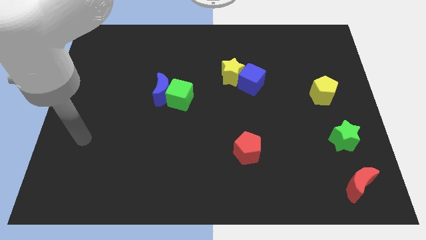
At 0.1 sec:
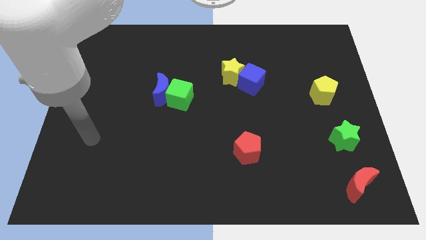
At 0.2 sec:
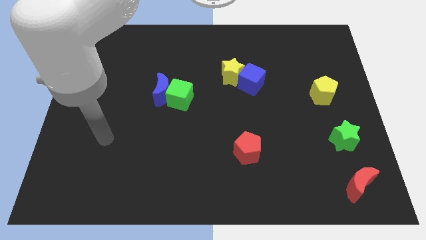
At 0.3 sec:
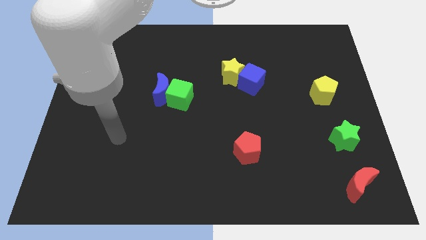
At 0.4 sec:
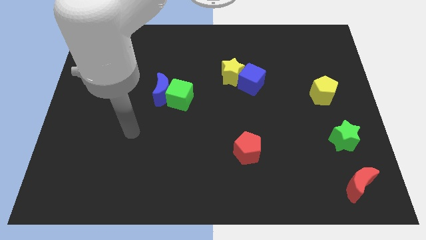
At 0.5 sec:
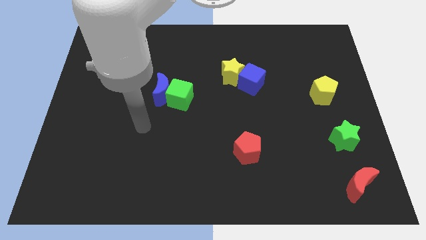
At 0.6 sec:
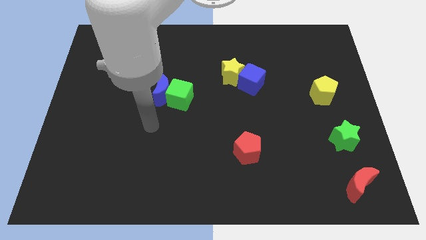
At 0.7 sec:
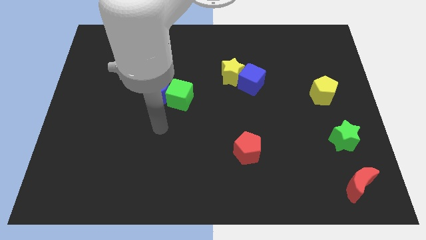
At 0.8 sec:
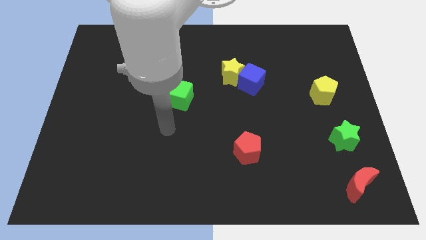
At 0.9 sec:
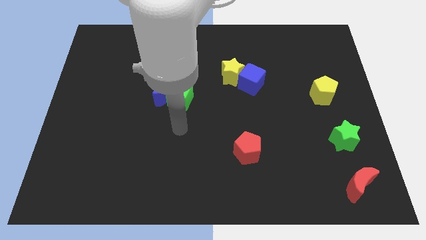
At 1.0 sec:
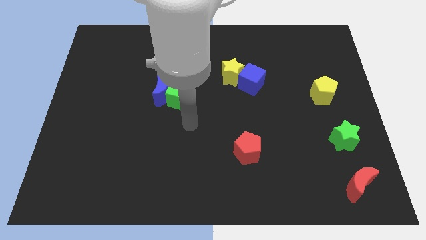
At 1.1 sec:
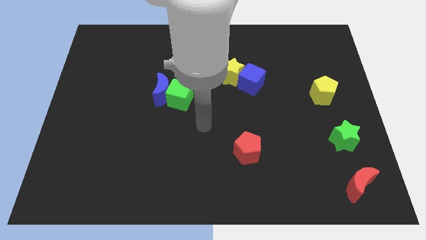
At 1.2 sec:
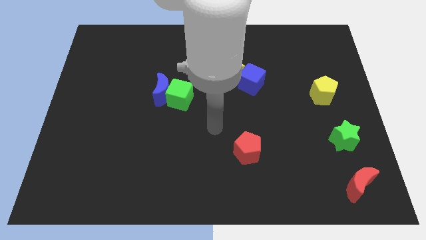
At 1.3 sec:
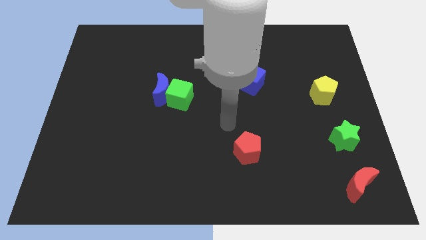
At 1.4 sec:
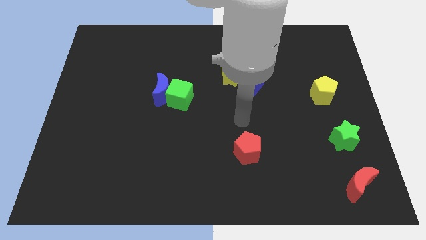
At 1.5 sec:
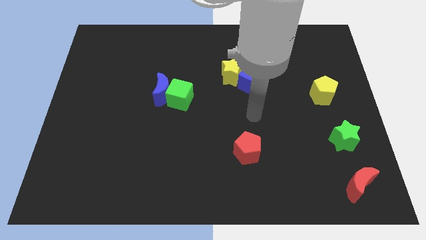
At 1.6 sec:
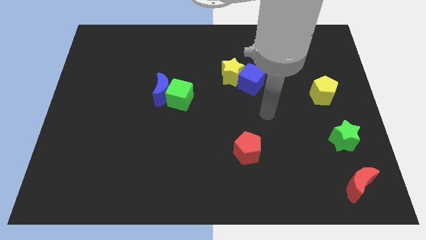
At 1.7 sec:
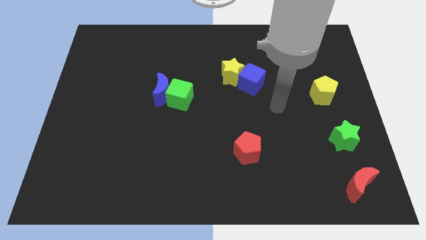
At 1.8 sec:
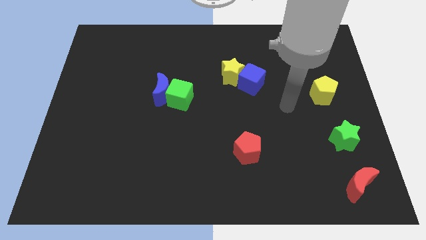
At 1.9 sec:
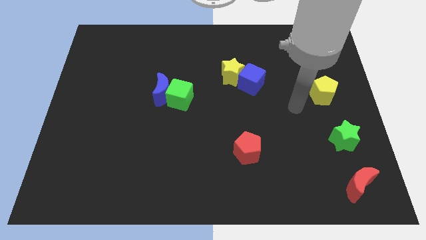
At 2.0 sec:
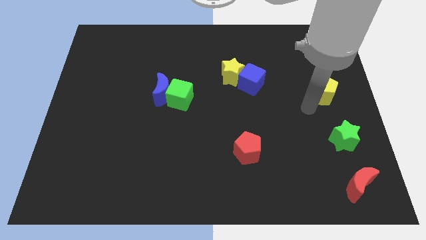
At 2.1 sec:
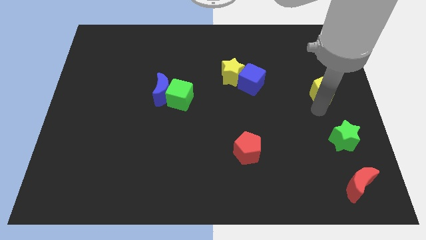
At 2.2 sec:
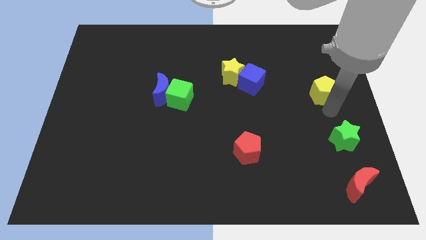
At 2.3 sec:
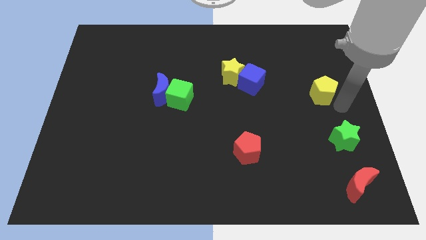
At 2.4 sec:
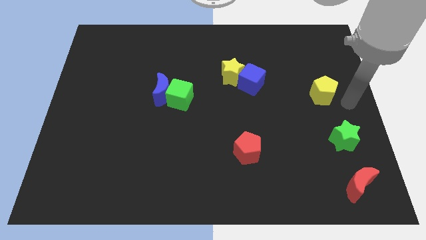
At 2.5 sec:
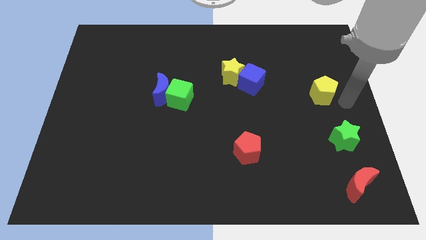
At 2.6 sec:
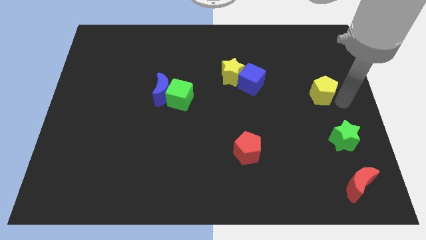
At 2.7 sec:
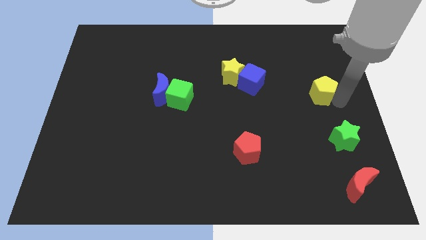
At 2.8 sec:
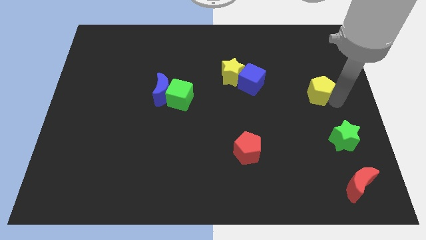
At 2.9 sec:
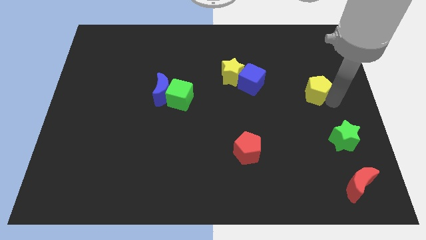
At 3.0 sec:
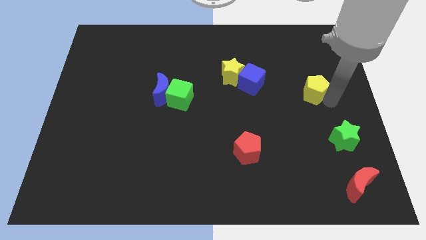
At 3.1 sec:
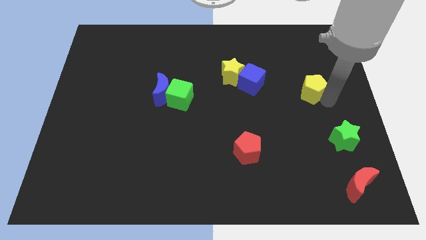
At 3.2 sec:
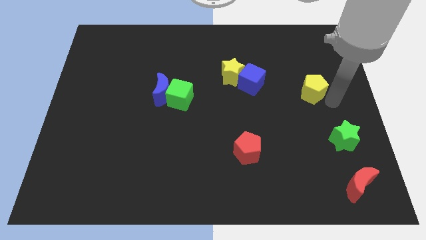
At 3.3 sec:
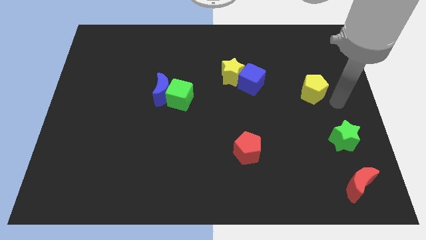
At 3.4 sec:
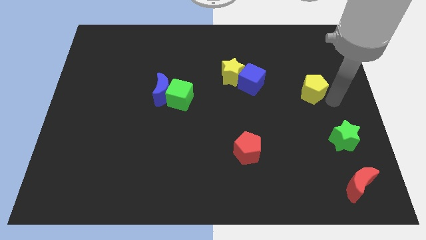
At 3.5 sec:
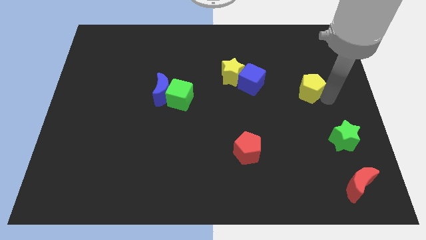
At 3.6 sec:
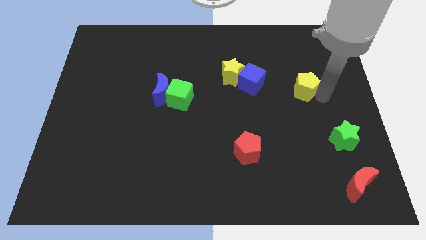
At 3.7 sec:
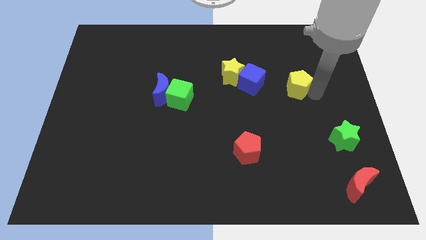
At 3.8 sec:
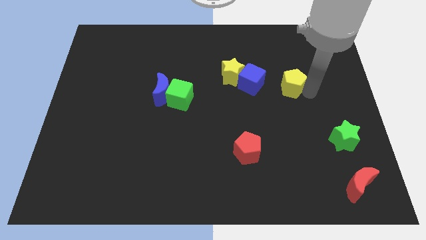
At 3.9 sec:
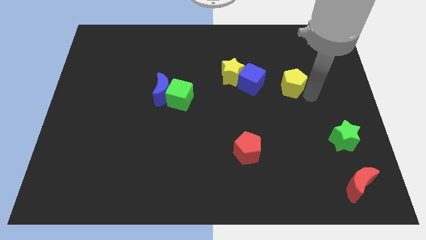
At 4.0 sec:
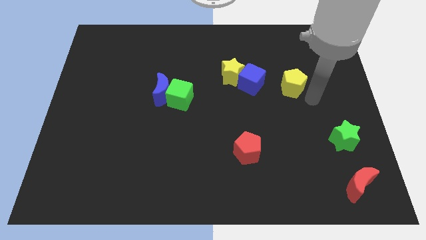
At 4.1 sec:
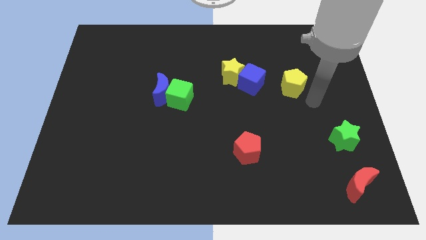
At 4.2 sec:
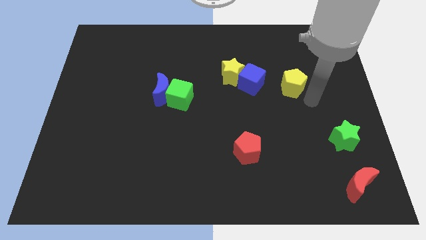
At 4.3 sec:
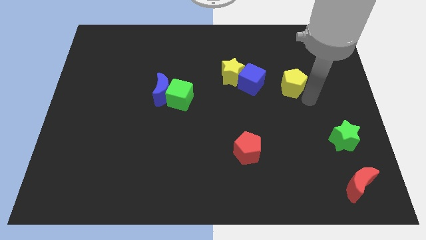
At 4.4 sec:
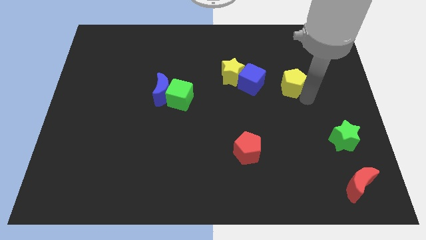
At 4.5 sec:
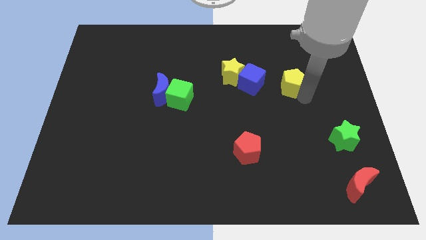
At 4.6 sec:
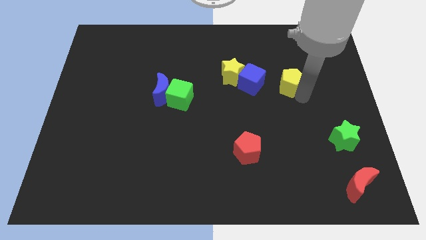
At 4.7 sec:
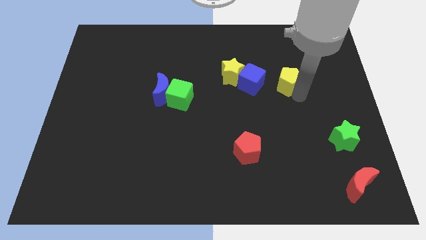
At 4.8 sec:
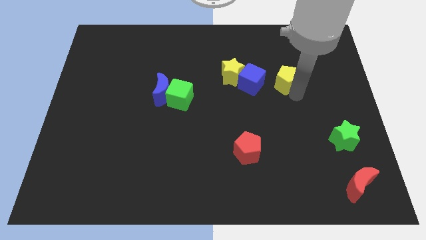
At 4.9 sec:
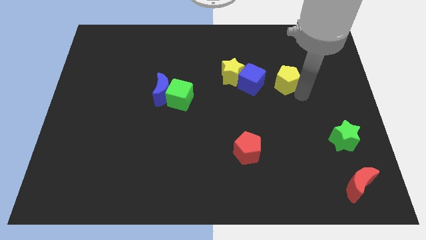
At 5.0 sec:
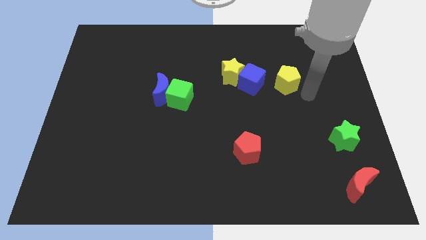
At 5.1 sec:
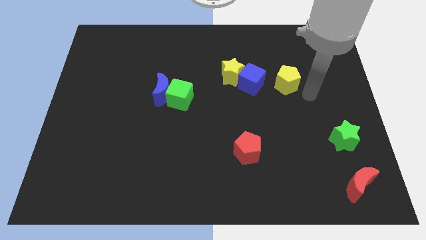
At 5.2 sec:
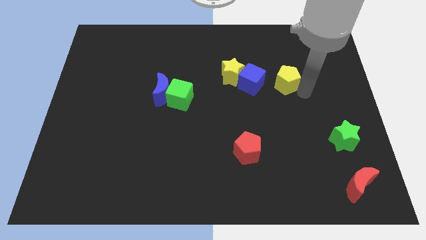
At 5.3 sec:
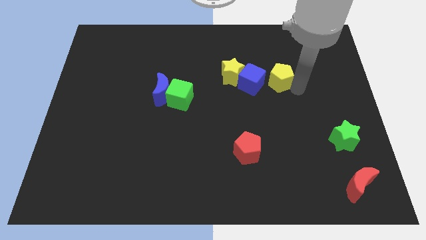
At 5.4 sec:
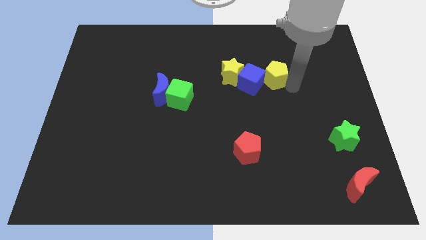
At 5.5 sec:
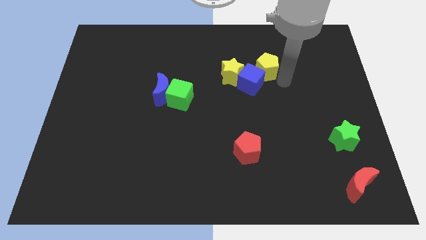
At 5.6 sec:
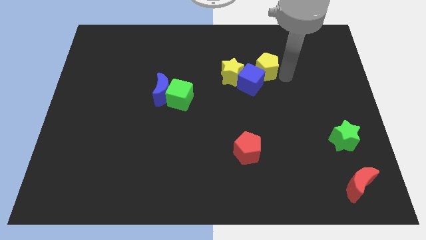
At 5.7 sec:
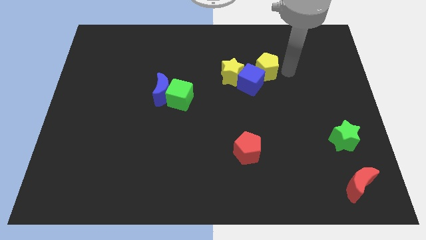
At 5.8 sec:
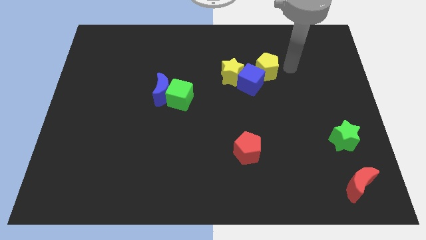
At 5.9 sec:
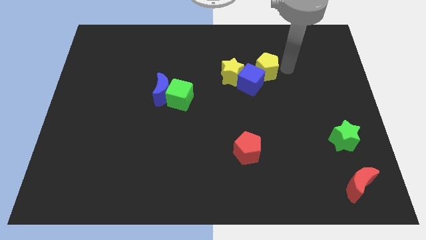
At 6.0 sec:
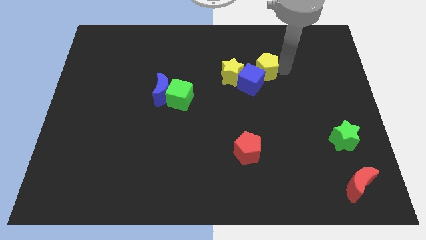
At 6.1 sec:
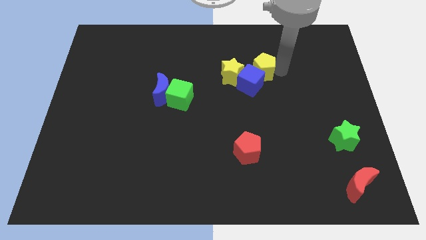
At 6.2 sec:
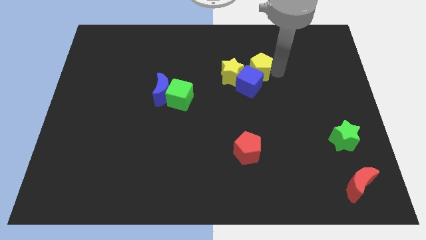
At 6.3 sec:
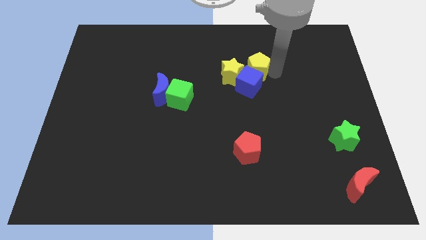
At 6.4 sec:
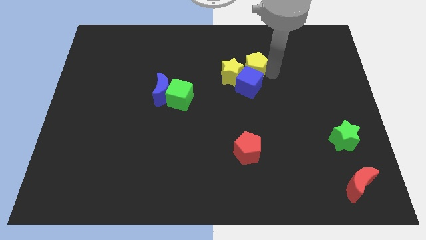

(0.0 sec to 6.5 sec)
move the yellow pentagon next to the yellow star

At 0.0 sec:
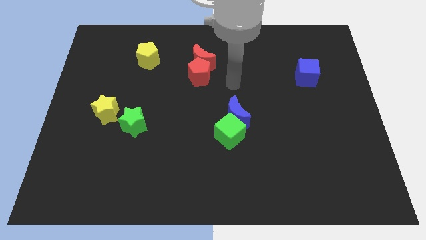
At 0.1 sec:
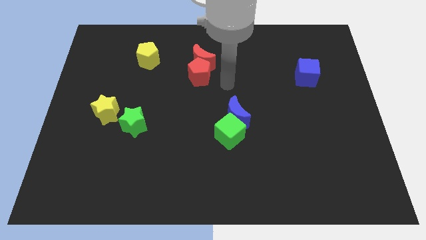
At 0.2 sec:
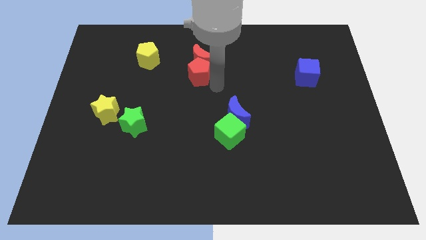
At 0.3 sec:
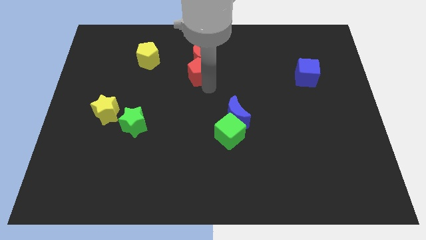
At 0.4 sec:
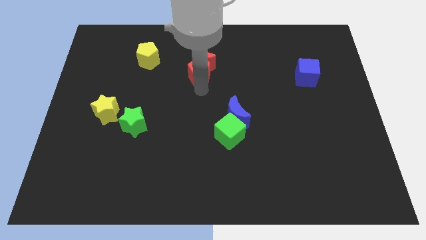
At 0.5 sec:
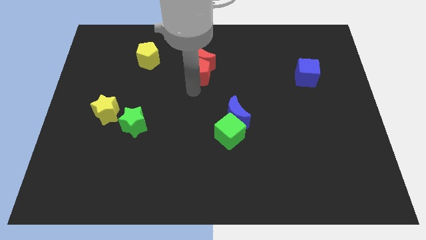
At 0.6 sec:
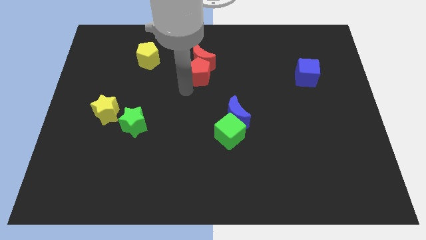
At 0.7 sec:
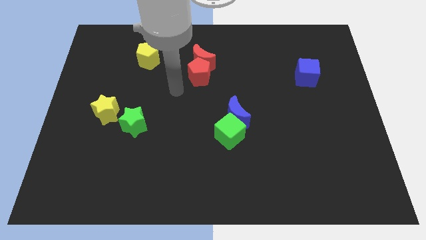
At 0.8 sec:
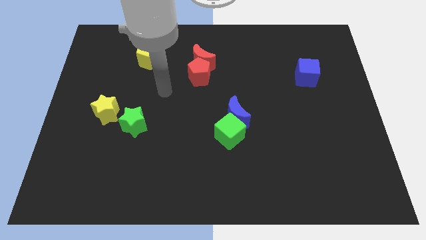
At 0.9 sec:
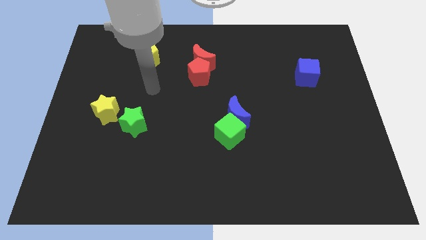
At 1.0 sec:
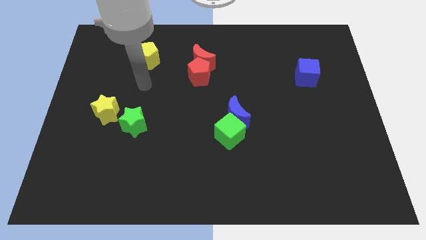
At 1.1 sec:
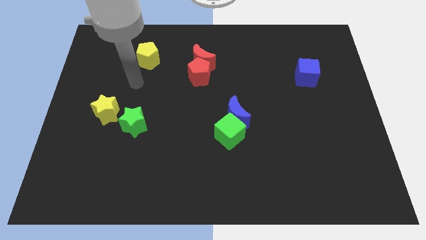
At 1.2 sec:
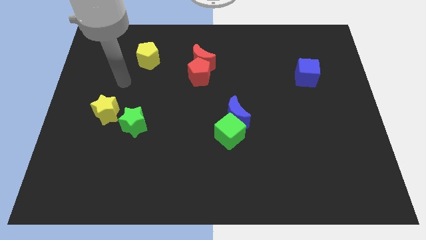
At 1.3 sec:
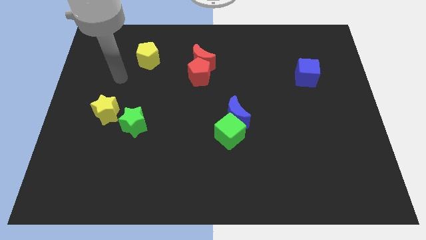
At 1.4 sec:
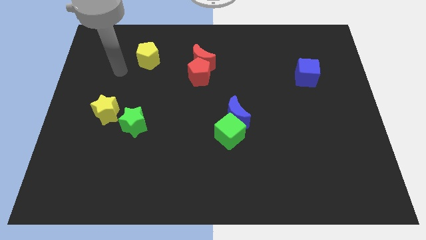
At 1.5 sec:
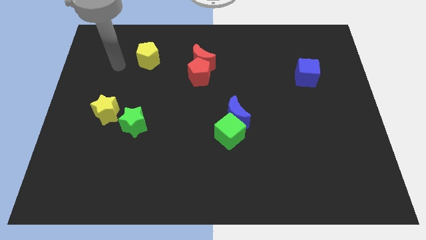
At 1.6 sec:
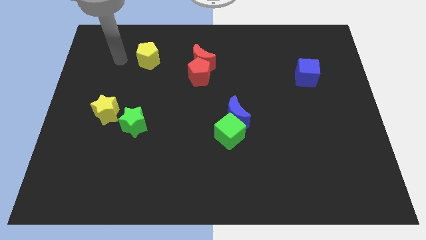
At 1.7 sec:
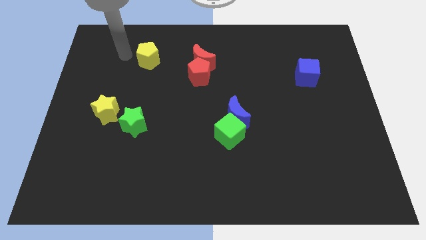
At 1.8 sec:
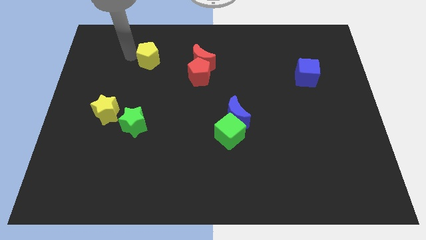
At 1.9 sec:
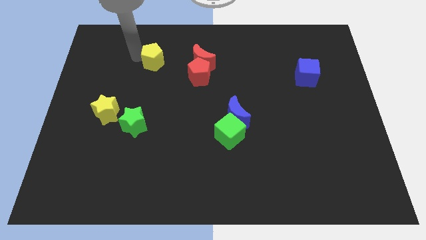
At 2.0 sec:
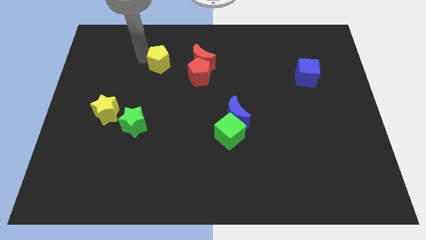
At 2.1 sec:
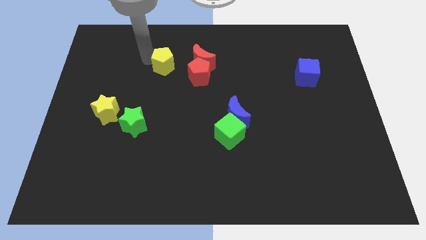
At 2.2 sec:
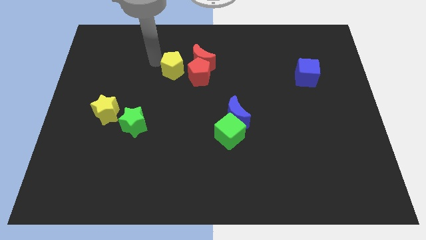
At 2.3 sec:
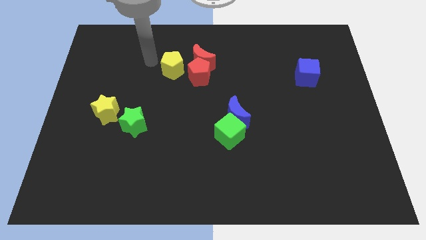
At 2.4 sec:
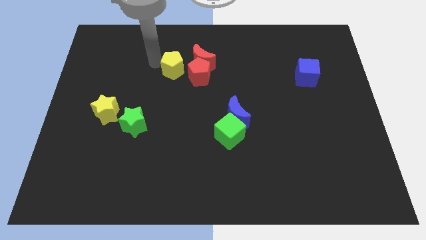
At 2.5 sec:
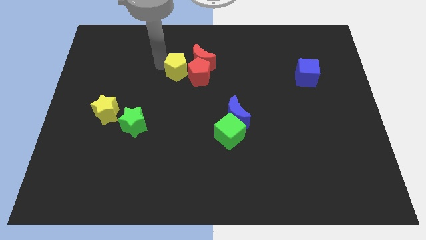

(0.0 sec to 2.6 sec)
push the yellow pentagon close to the red pentagon
